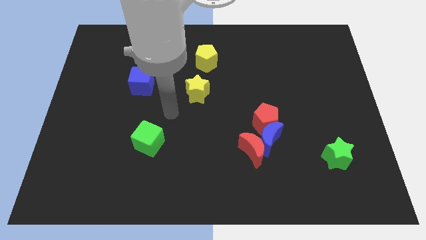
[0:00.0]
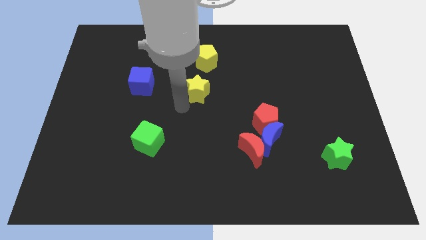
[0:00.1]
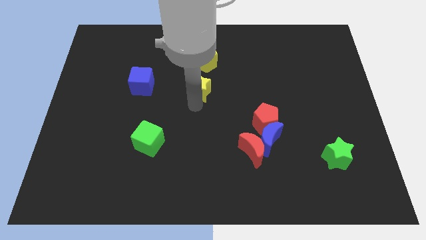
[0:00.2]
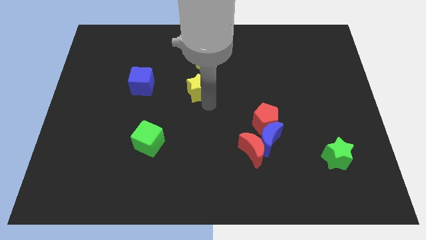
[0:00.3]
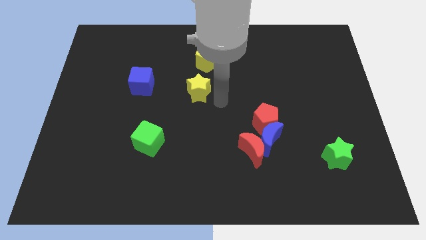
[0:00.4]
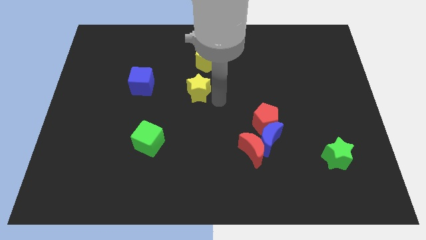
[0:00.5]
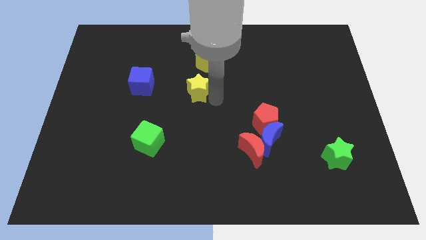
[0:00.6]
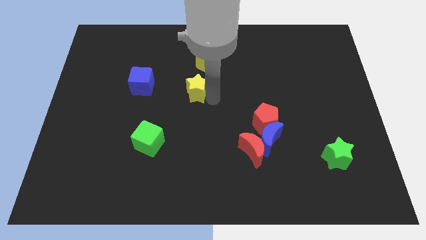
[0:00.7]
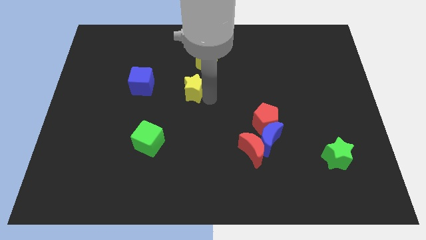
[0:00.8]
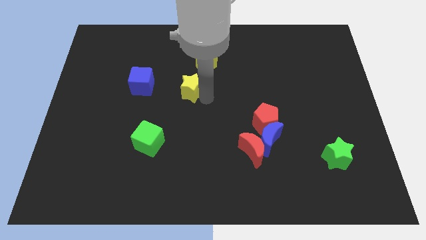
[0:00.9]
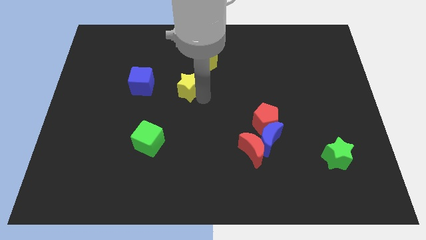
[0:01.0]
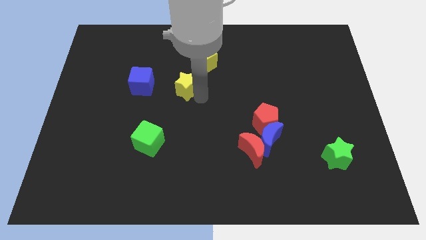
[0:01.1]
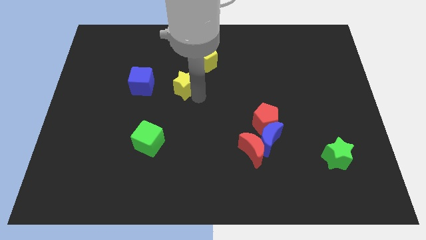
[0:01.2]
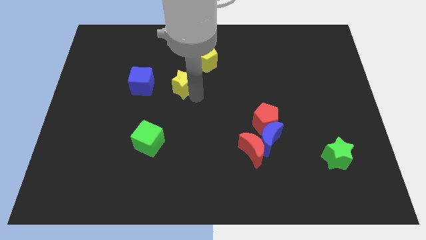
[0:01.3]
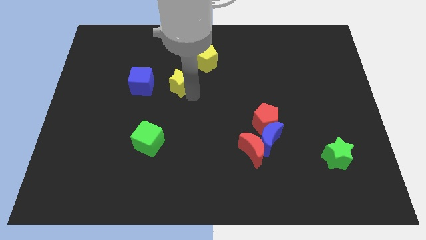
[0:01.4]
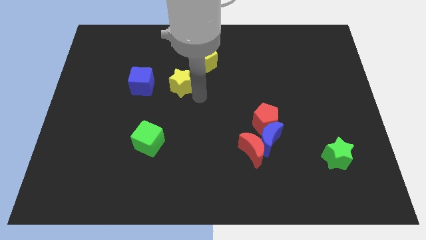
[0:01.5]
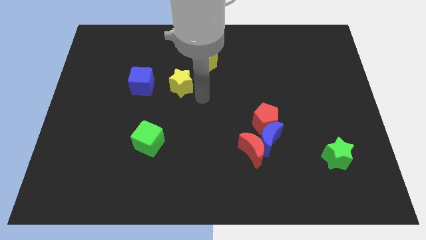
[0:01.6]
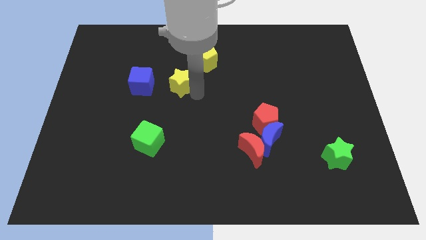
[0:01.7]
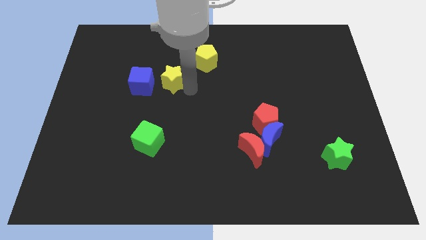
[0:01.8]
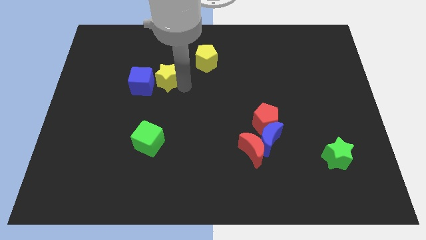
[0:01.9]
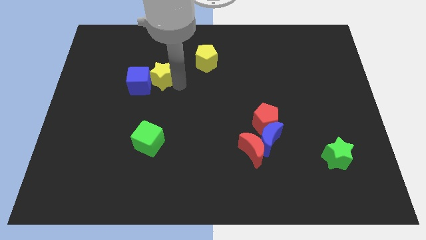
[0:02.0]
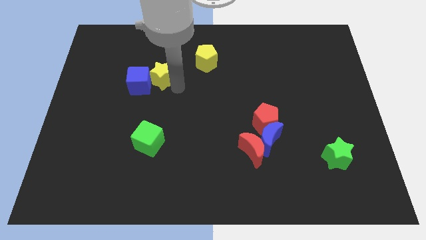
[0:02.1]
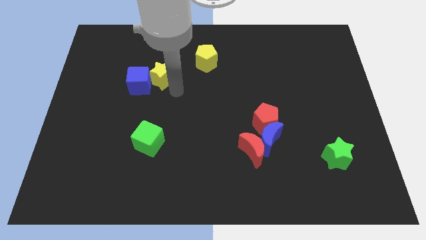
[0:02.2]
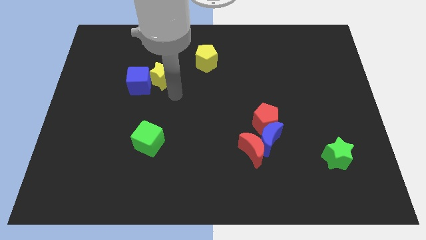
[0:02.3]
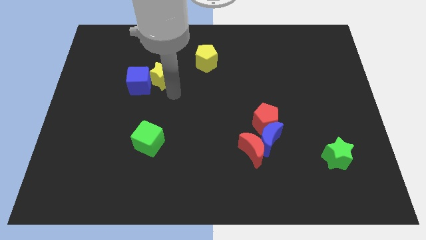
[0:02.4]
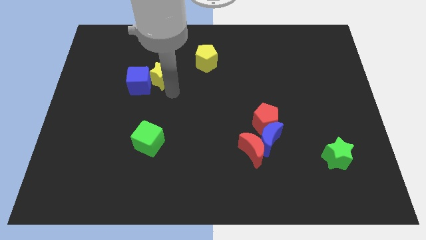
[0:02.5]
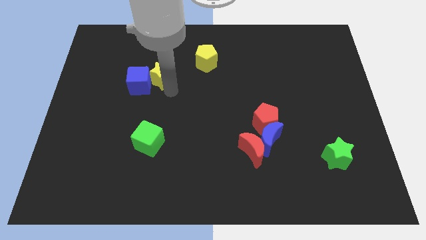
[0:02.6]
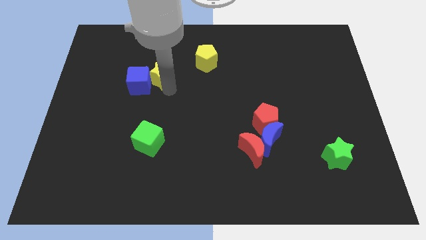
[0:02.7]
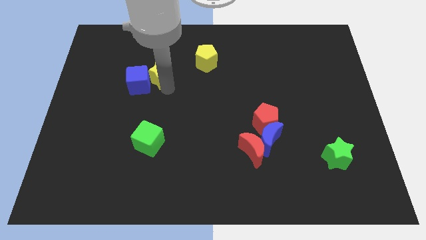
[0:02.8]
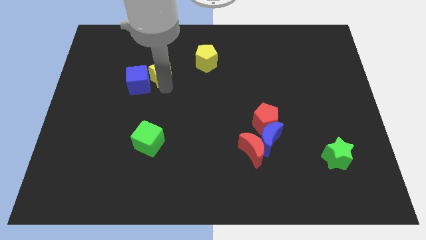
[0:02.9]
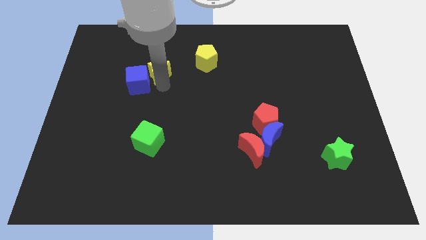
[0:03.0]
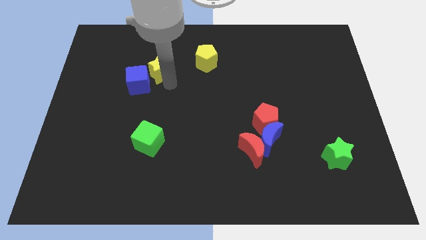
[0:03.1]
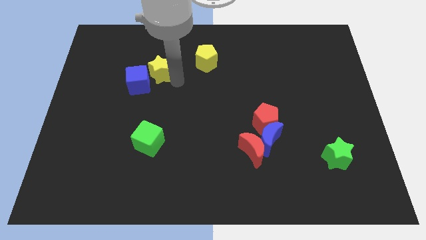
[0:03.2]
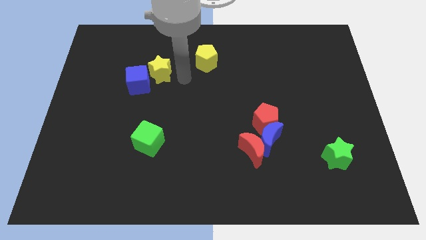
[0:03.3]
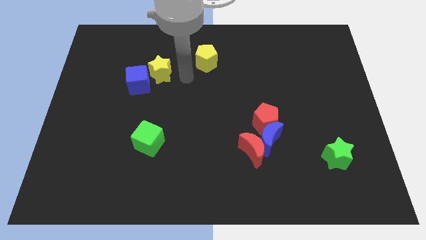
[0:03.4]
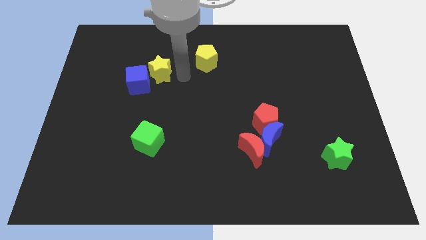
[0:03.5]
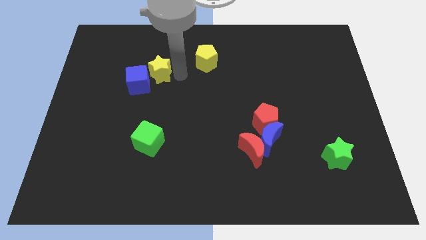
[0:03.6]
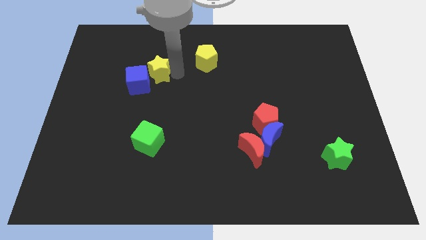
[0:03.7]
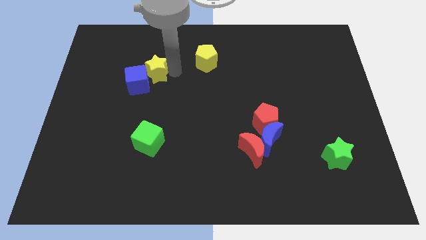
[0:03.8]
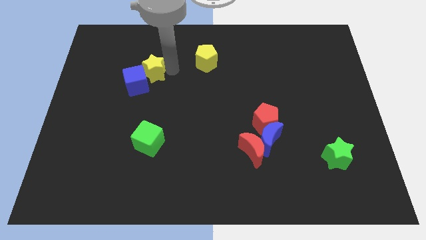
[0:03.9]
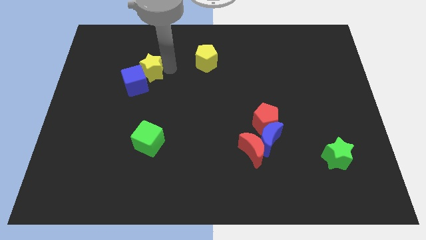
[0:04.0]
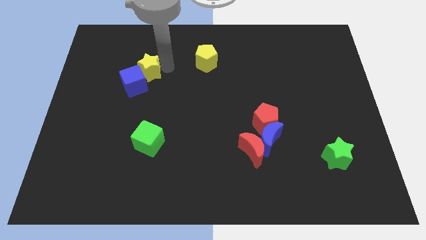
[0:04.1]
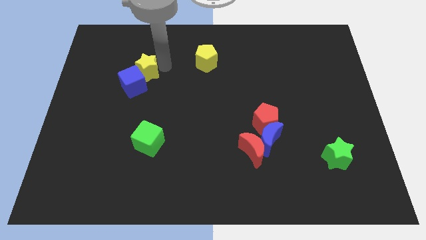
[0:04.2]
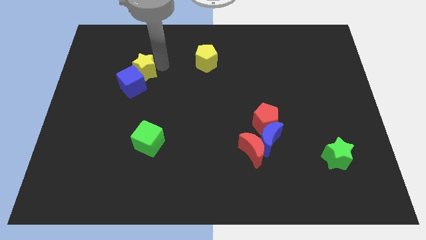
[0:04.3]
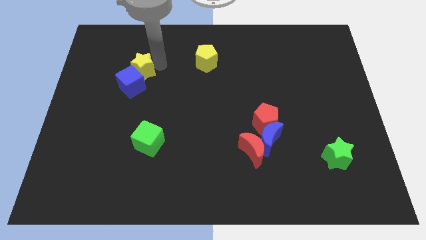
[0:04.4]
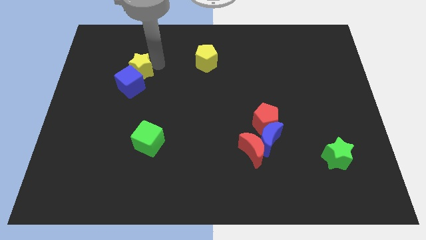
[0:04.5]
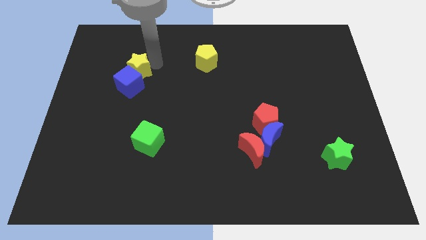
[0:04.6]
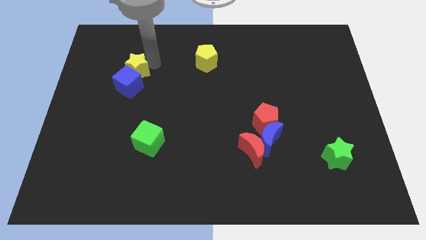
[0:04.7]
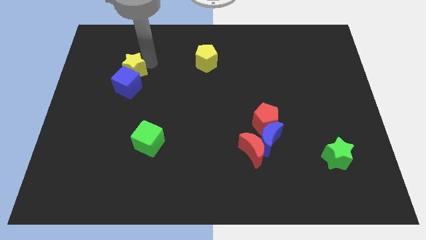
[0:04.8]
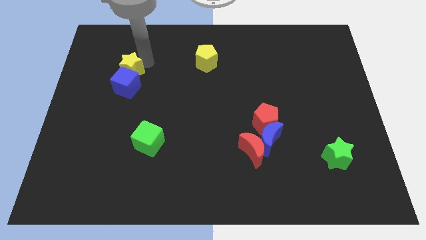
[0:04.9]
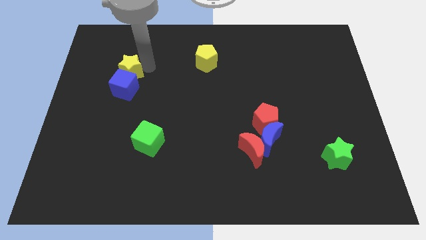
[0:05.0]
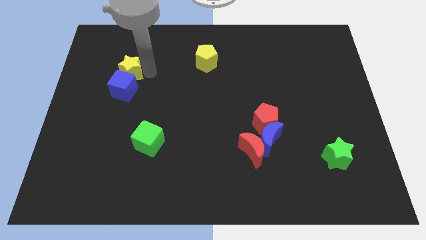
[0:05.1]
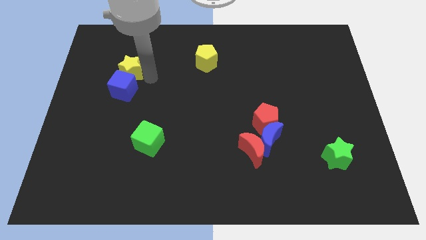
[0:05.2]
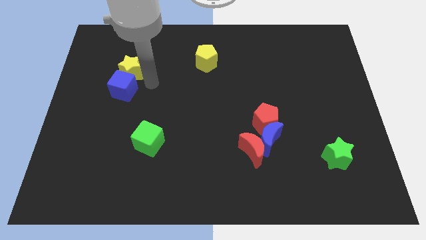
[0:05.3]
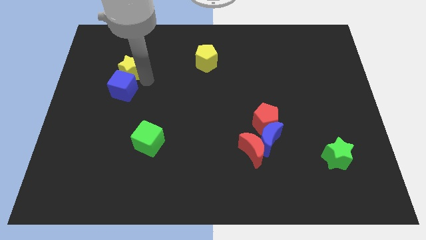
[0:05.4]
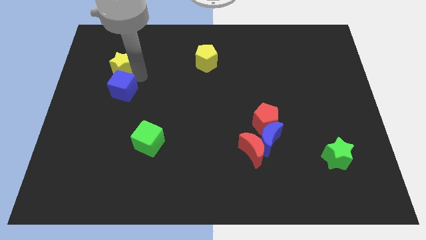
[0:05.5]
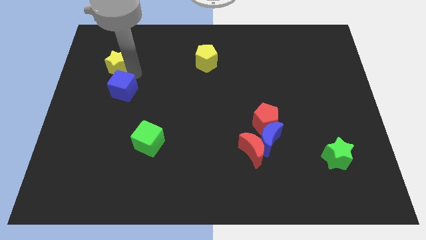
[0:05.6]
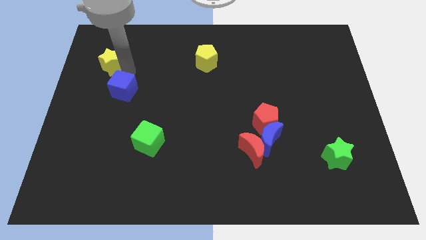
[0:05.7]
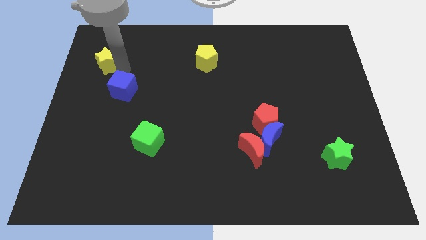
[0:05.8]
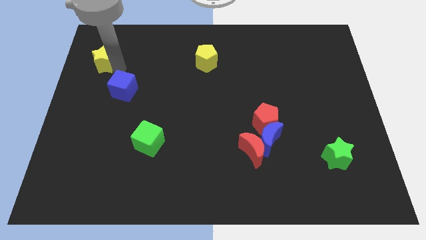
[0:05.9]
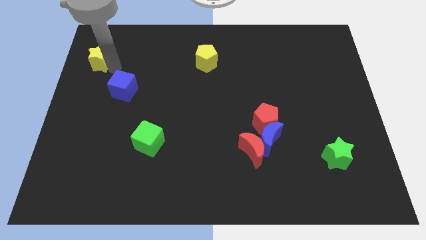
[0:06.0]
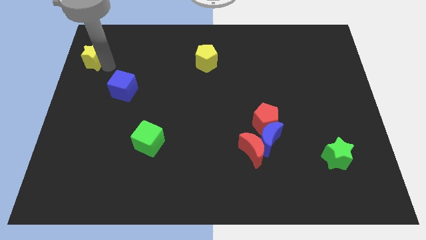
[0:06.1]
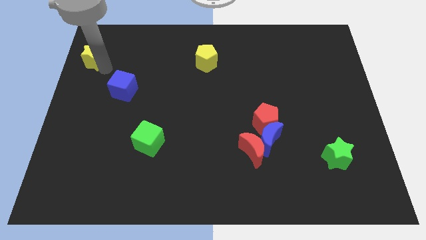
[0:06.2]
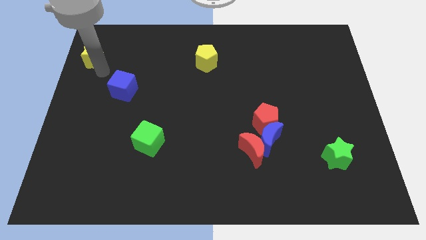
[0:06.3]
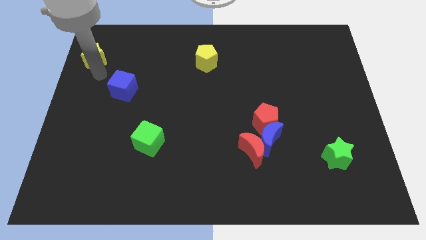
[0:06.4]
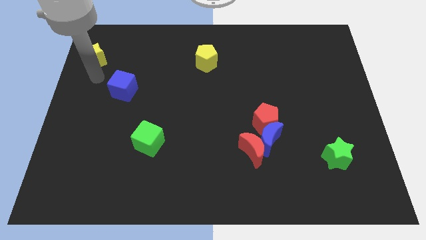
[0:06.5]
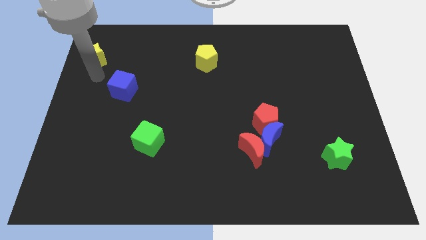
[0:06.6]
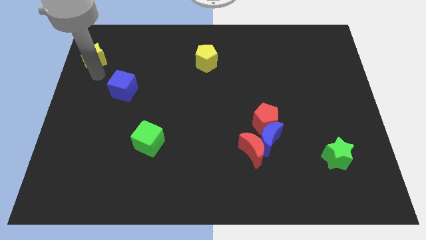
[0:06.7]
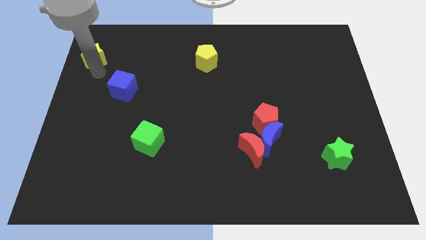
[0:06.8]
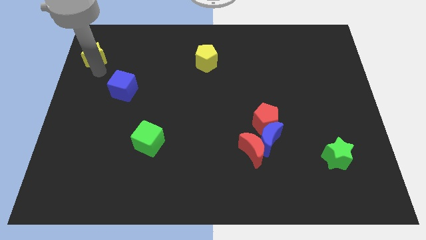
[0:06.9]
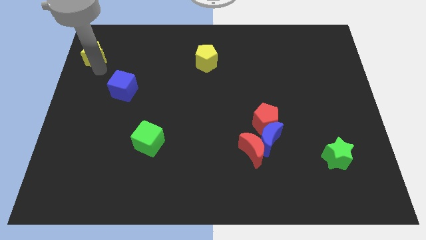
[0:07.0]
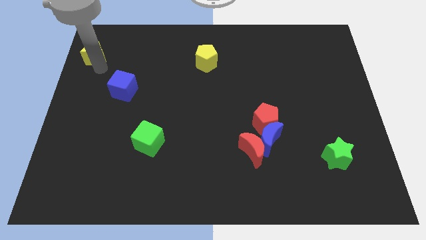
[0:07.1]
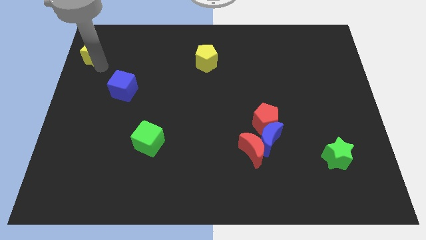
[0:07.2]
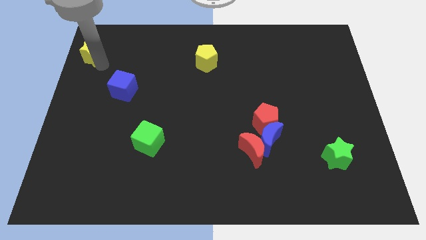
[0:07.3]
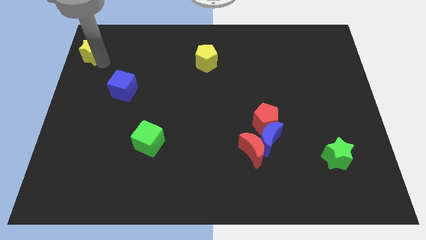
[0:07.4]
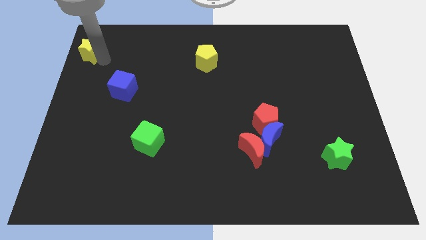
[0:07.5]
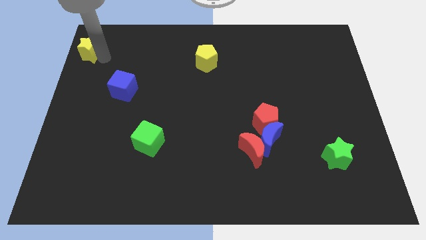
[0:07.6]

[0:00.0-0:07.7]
put the yellow star to the top left
